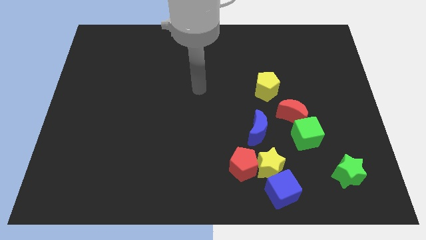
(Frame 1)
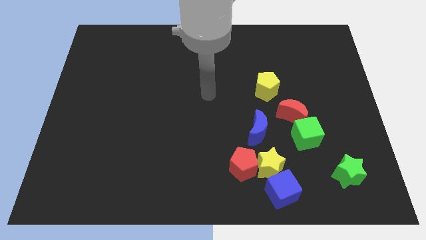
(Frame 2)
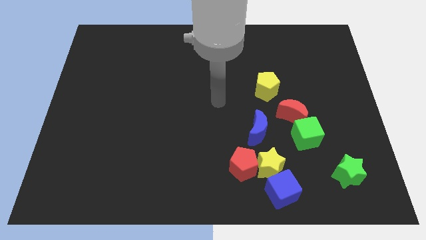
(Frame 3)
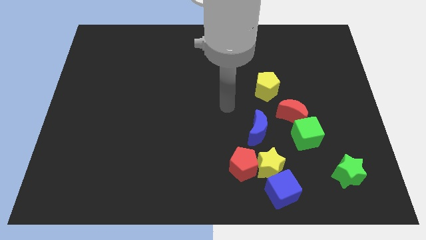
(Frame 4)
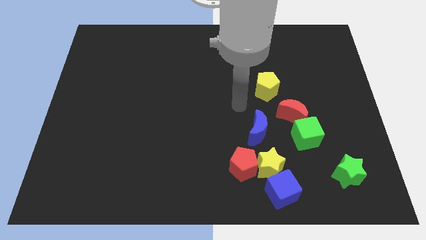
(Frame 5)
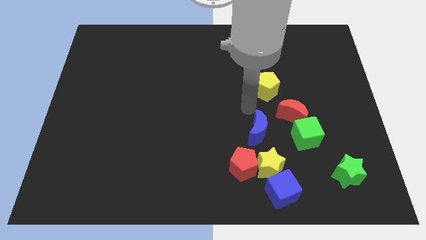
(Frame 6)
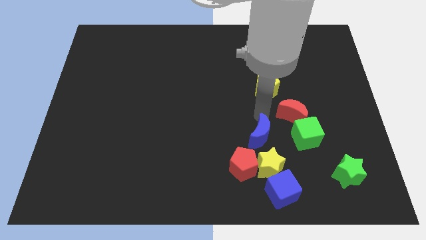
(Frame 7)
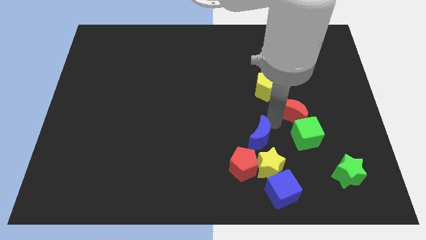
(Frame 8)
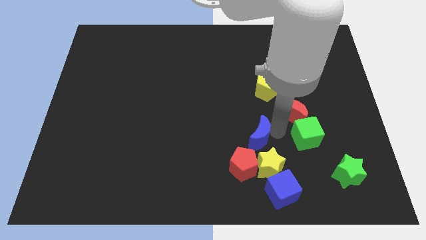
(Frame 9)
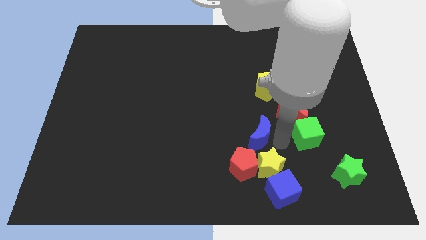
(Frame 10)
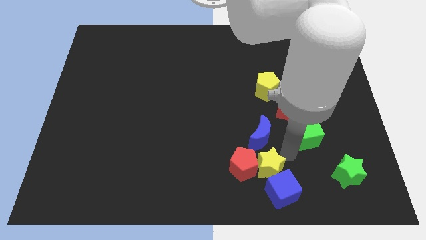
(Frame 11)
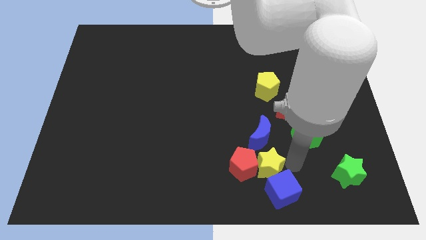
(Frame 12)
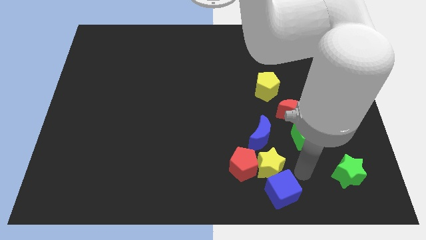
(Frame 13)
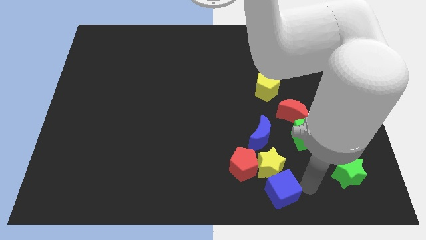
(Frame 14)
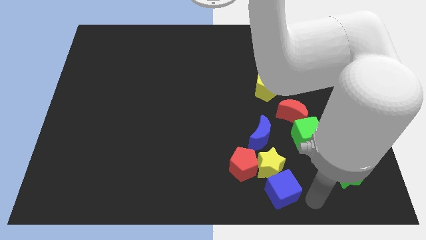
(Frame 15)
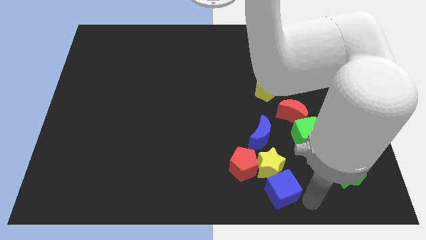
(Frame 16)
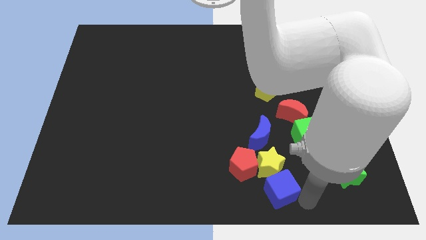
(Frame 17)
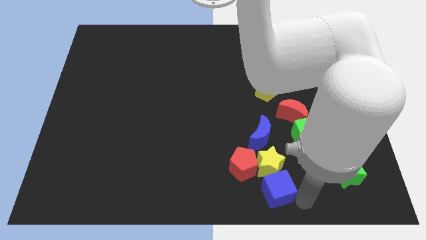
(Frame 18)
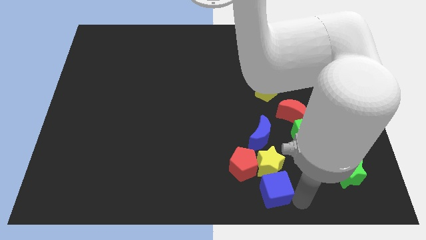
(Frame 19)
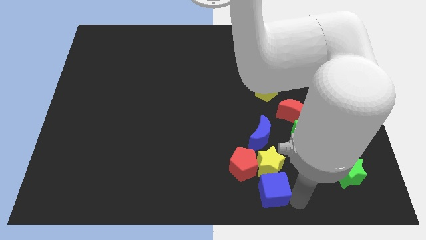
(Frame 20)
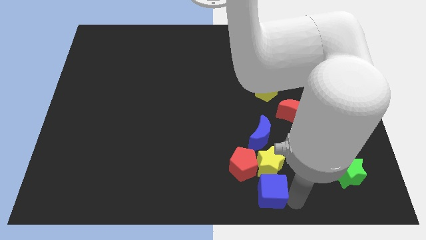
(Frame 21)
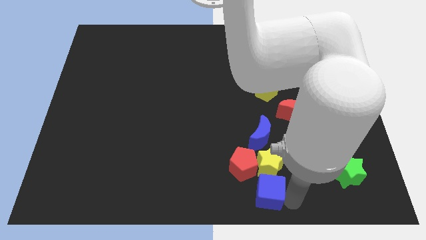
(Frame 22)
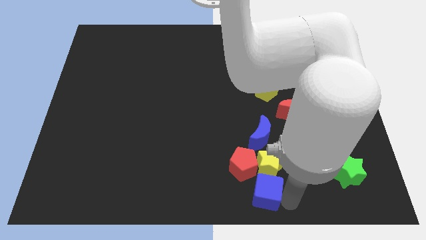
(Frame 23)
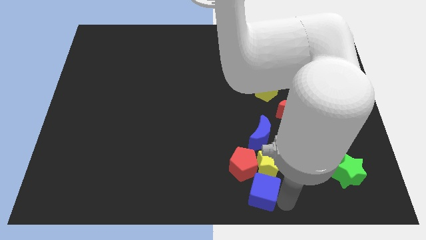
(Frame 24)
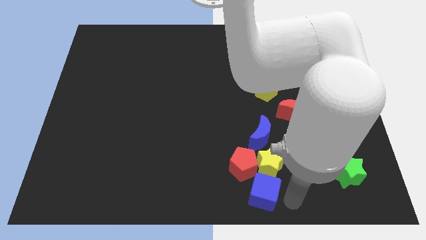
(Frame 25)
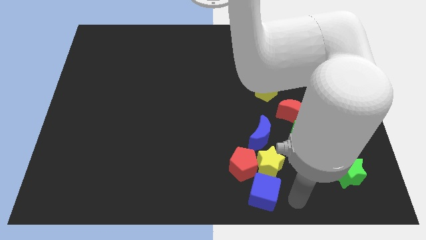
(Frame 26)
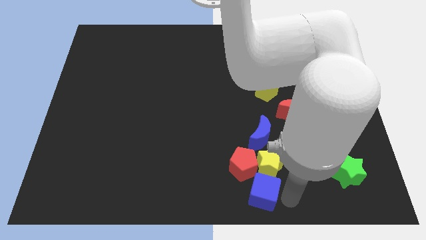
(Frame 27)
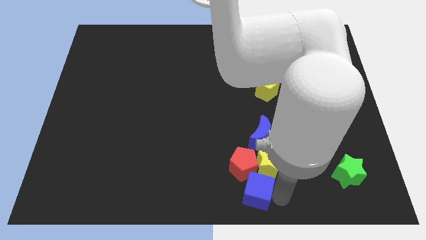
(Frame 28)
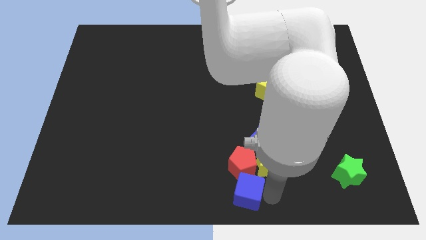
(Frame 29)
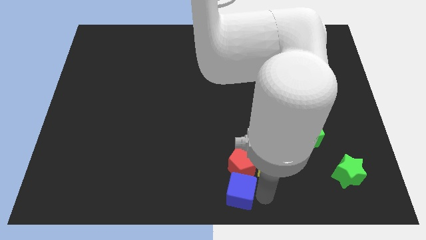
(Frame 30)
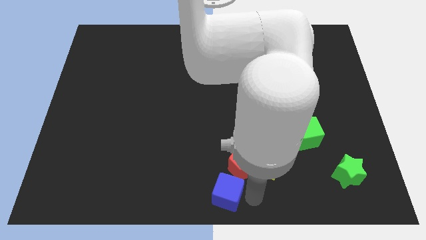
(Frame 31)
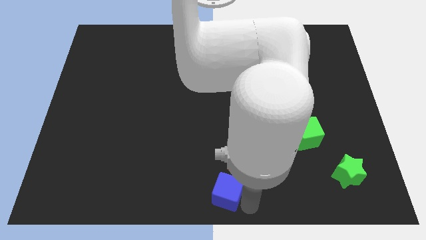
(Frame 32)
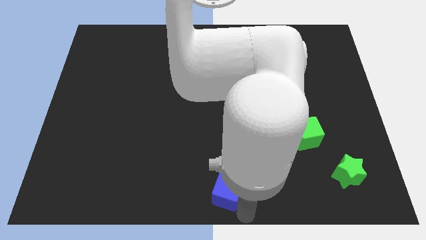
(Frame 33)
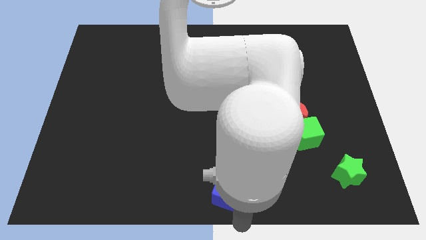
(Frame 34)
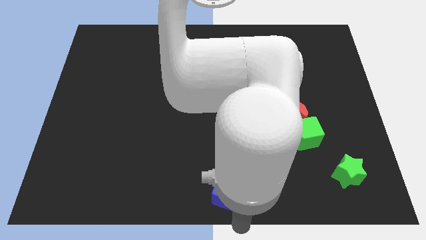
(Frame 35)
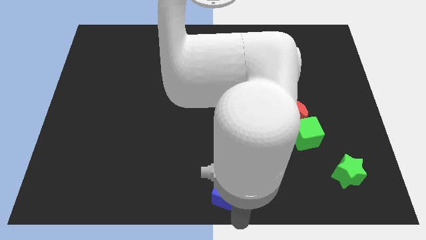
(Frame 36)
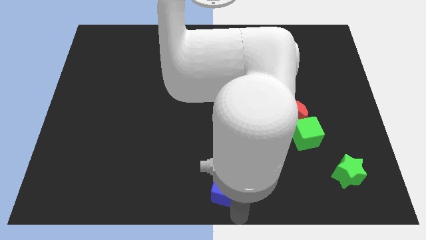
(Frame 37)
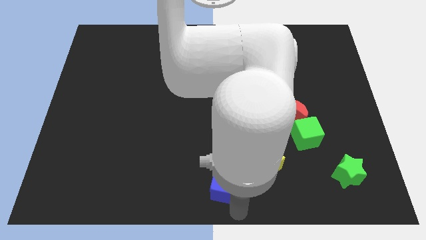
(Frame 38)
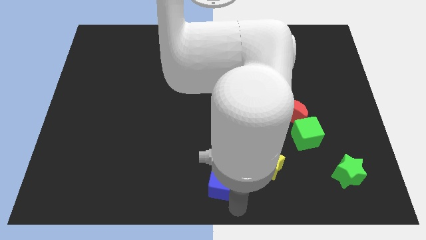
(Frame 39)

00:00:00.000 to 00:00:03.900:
push the blue cube slightly diagonally upwards and left

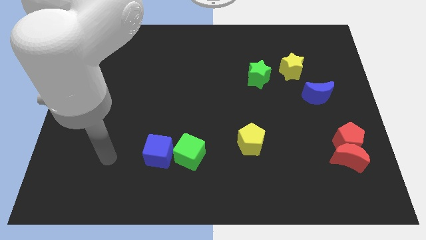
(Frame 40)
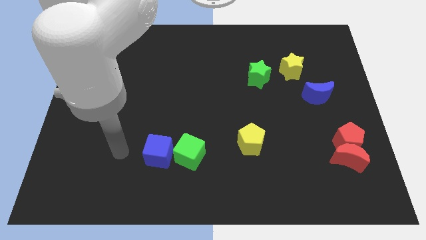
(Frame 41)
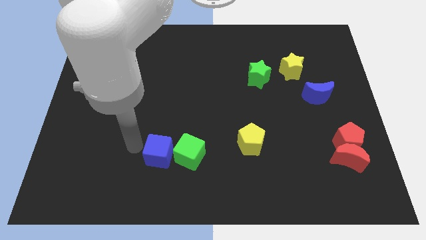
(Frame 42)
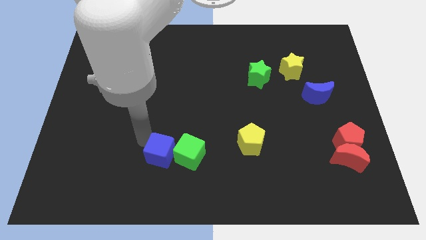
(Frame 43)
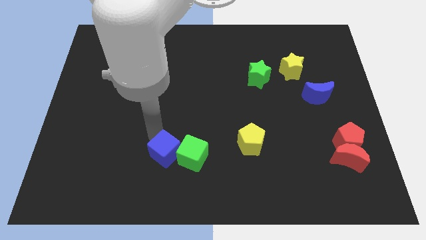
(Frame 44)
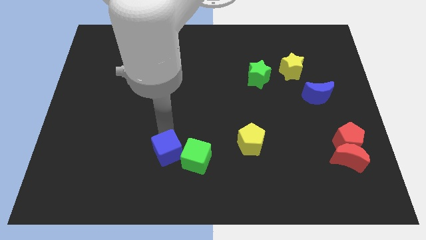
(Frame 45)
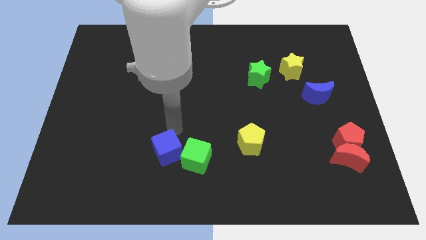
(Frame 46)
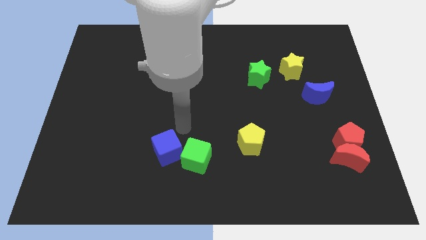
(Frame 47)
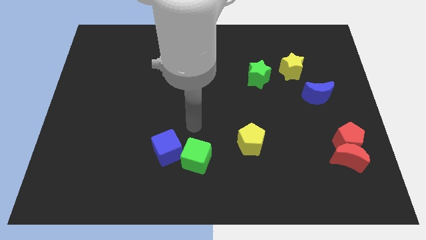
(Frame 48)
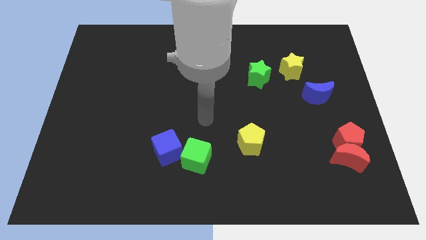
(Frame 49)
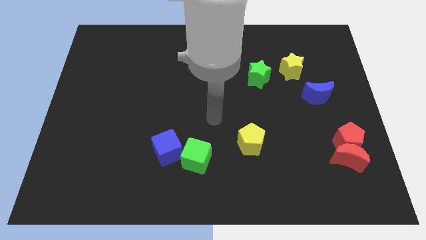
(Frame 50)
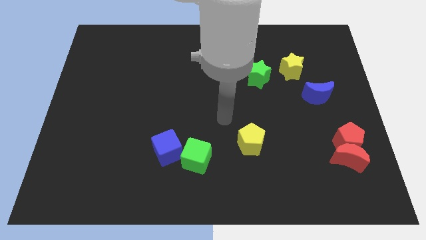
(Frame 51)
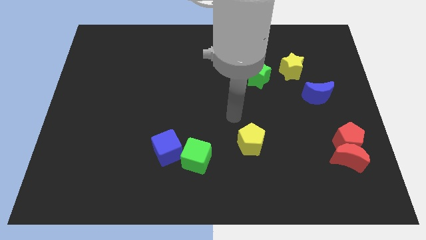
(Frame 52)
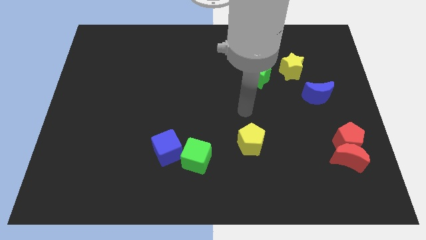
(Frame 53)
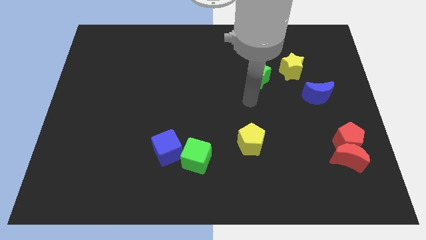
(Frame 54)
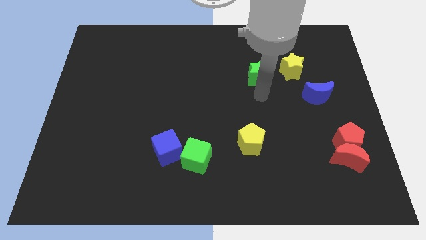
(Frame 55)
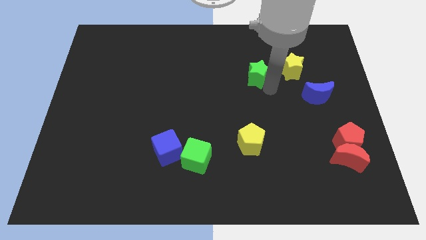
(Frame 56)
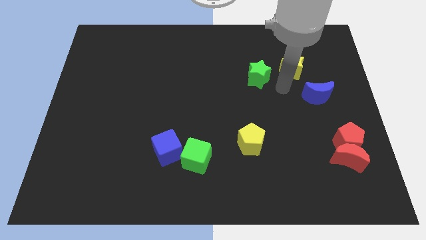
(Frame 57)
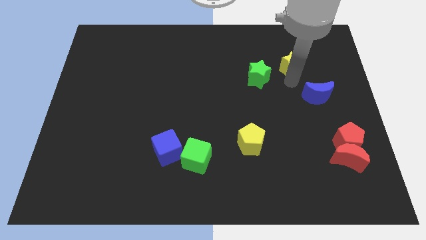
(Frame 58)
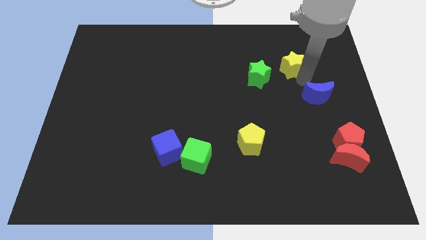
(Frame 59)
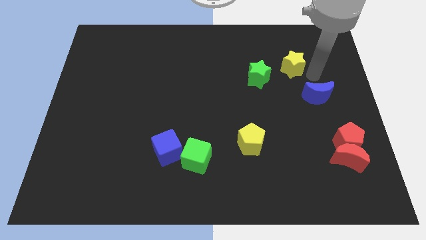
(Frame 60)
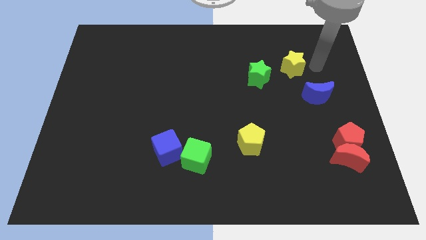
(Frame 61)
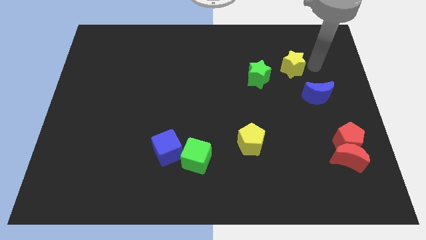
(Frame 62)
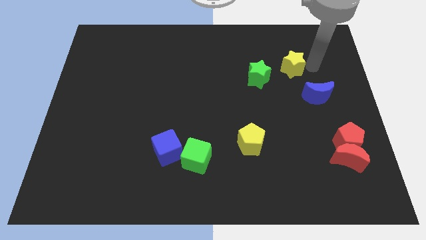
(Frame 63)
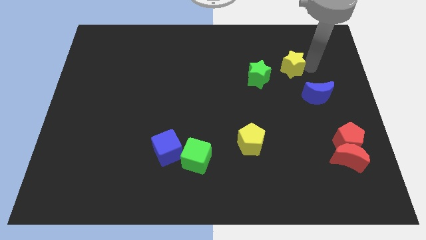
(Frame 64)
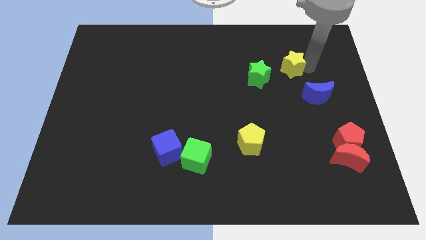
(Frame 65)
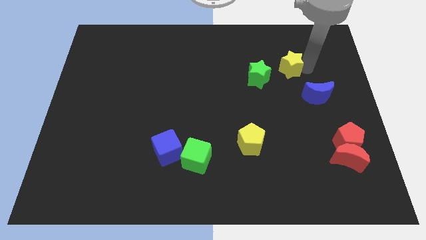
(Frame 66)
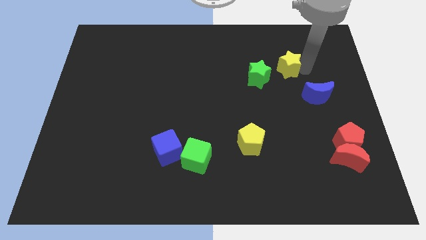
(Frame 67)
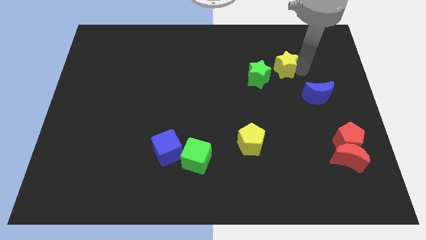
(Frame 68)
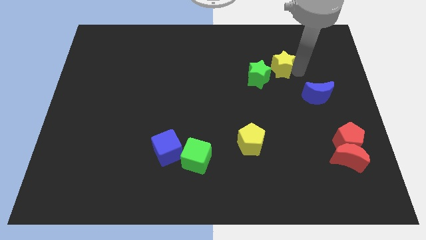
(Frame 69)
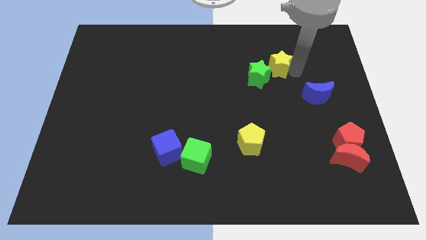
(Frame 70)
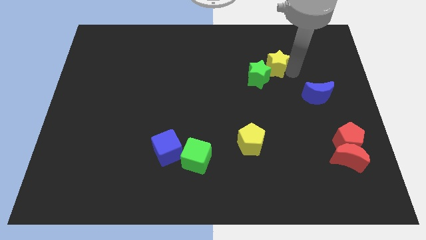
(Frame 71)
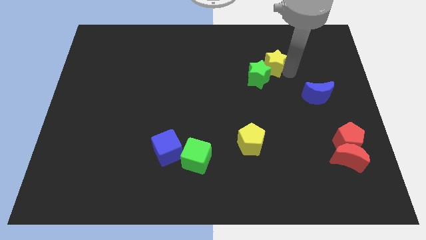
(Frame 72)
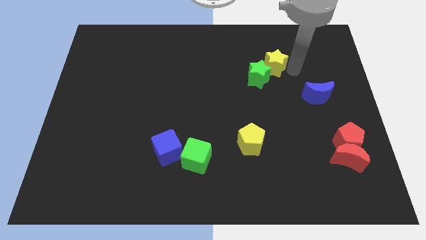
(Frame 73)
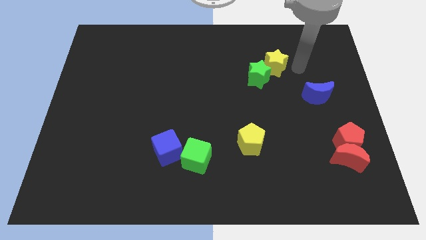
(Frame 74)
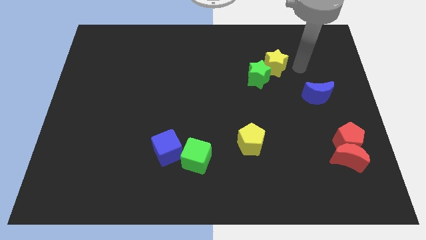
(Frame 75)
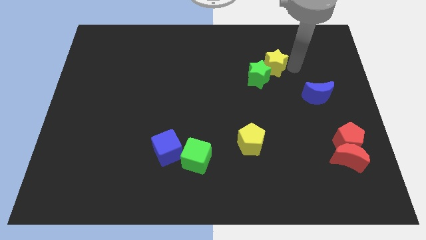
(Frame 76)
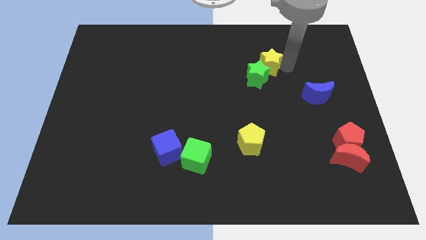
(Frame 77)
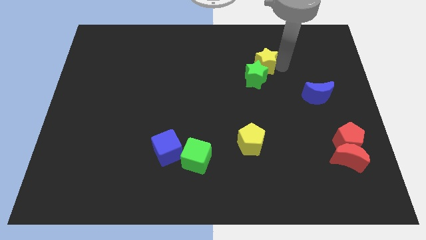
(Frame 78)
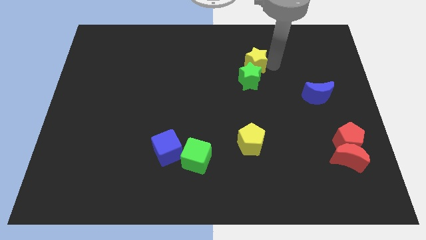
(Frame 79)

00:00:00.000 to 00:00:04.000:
move the yellow star a little bit to the left
